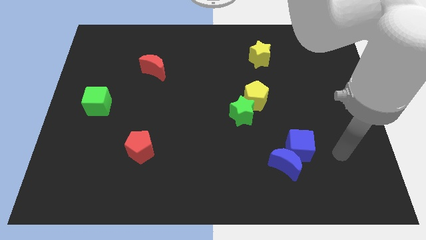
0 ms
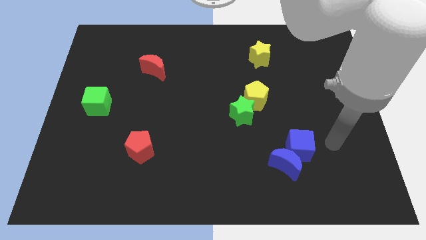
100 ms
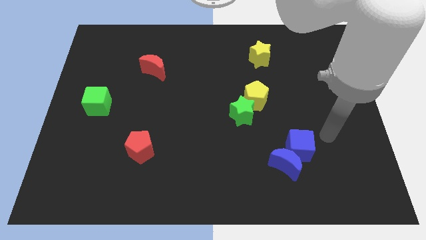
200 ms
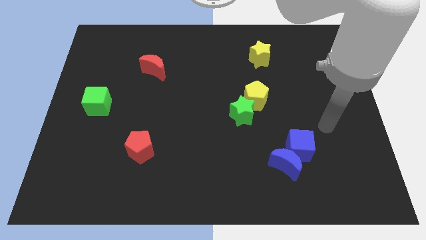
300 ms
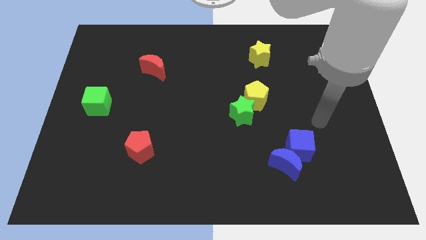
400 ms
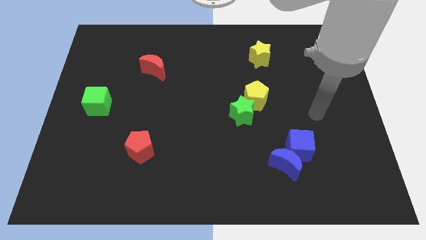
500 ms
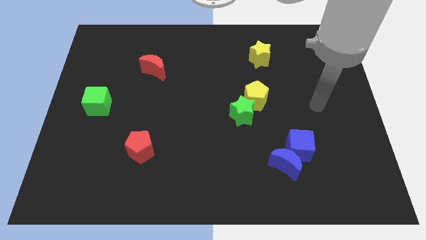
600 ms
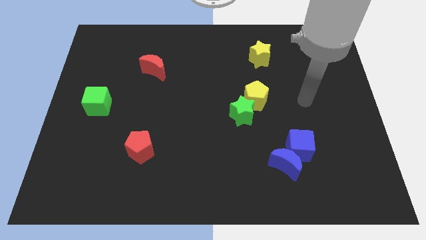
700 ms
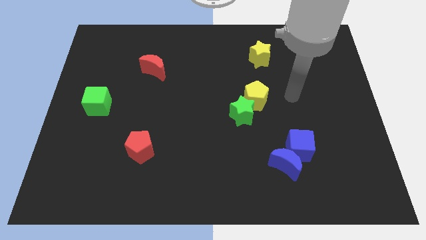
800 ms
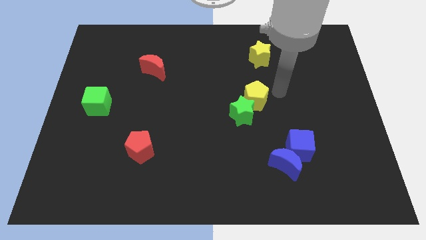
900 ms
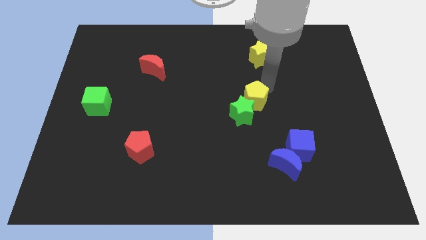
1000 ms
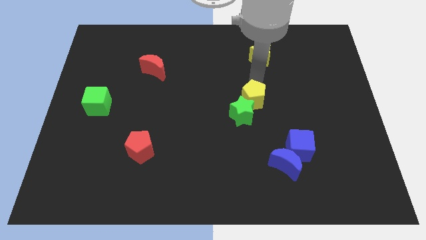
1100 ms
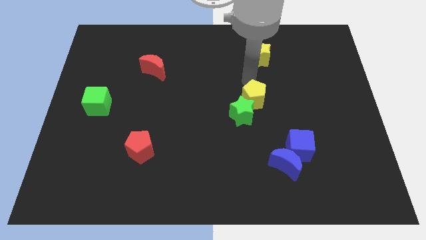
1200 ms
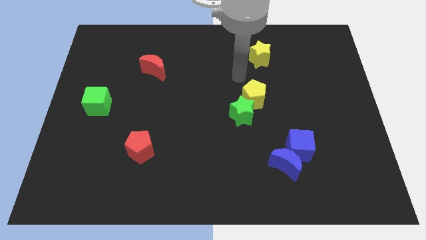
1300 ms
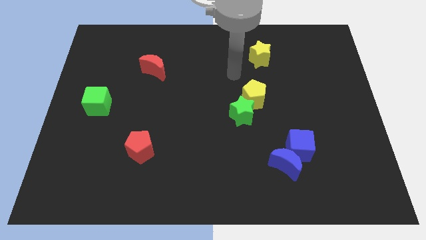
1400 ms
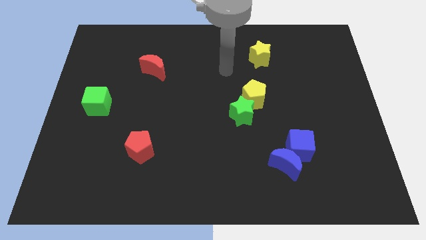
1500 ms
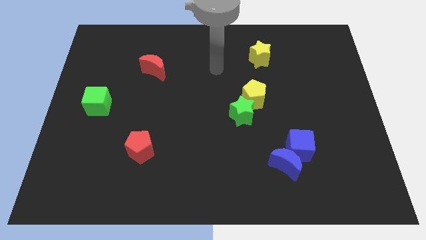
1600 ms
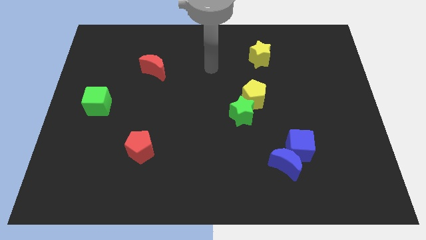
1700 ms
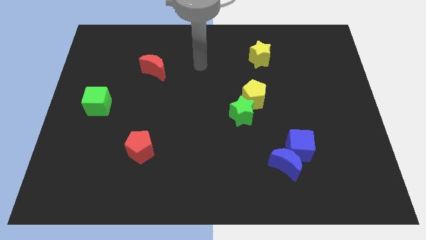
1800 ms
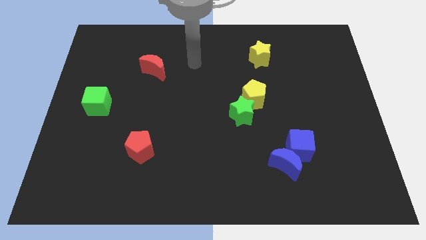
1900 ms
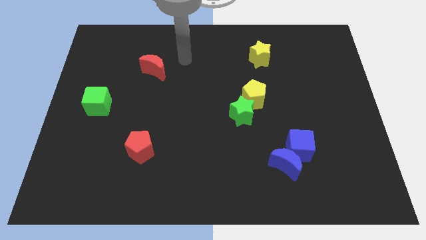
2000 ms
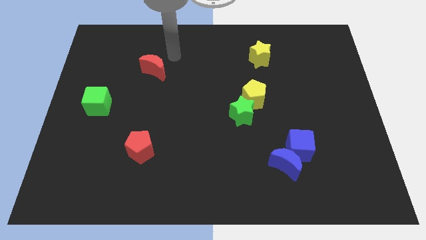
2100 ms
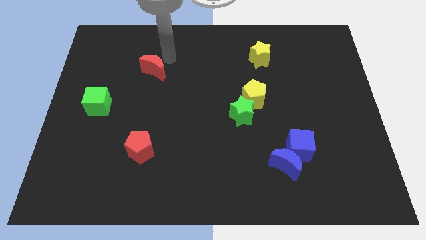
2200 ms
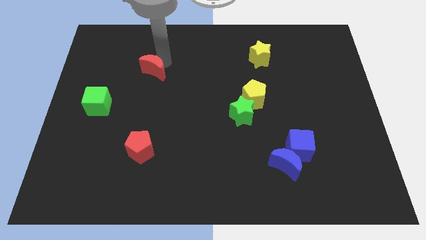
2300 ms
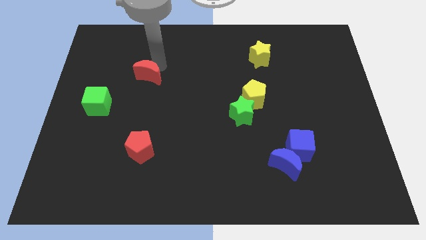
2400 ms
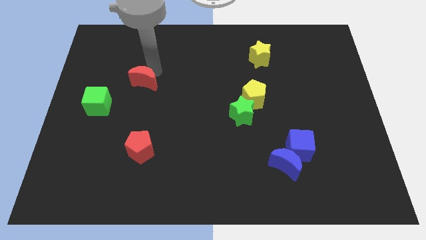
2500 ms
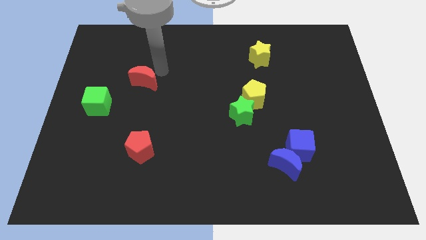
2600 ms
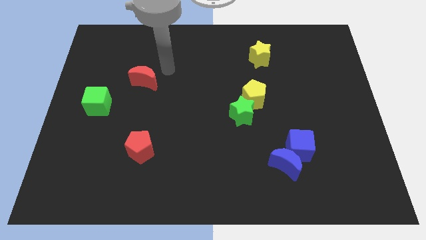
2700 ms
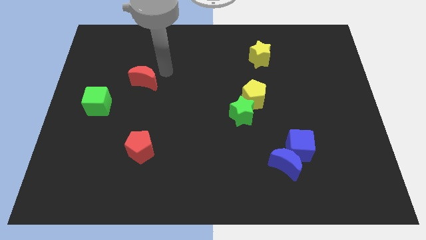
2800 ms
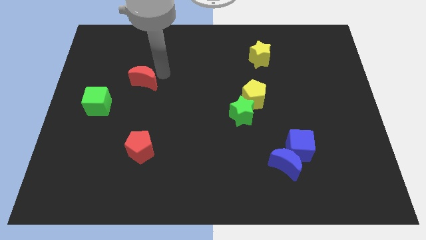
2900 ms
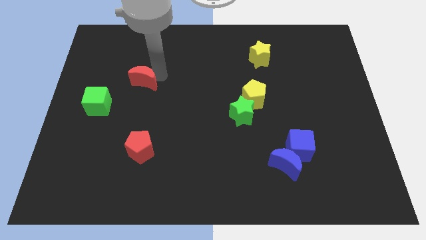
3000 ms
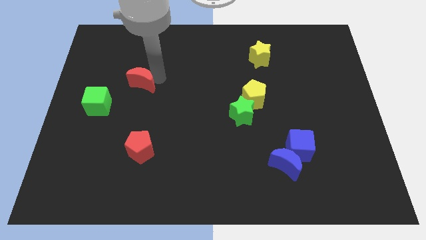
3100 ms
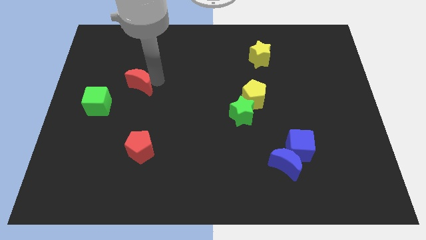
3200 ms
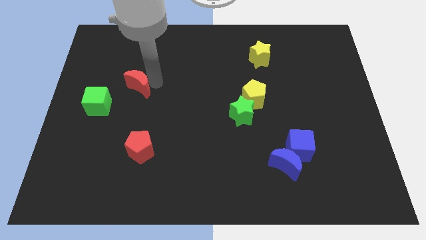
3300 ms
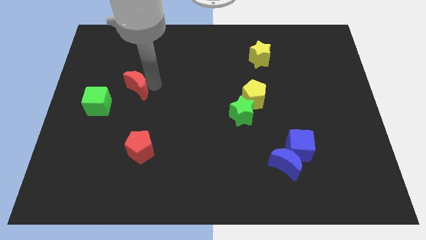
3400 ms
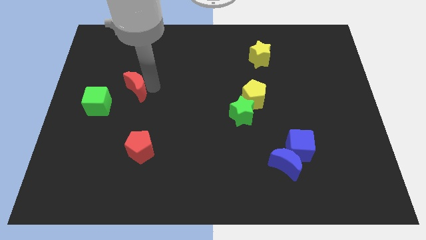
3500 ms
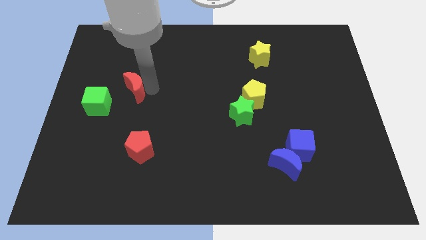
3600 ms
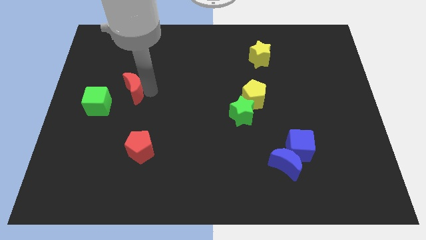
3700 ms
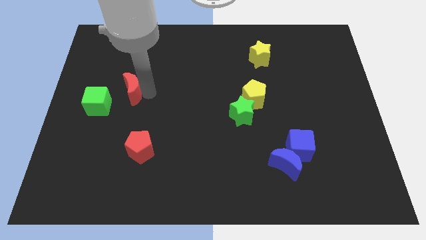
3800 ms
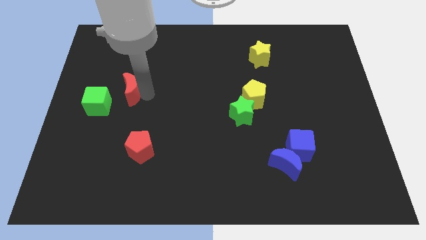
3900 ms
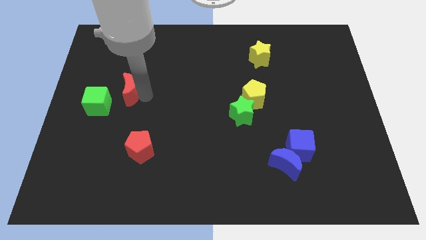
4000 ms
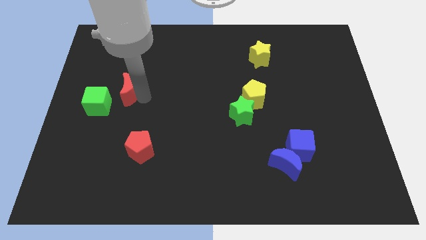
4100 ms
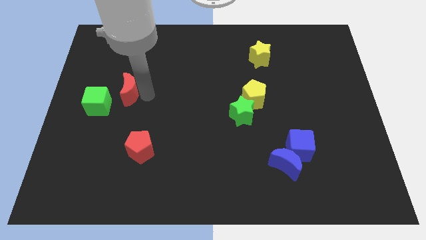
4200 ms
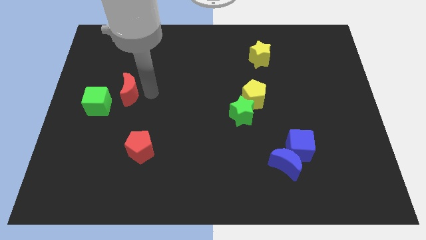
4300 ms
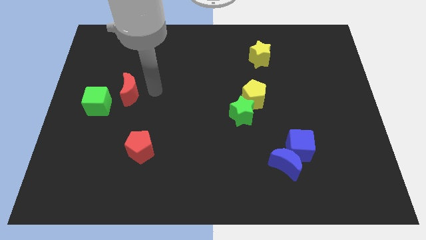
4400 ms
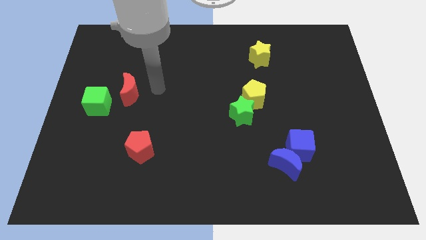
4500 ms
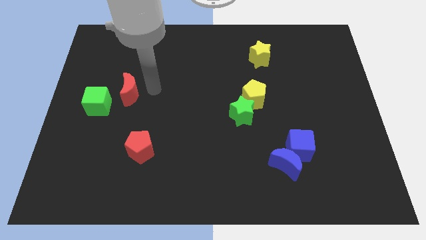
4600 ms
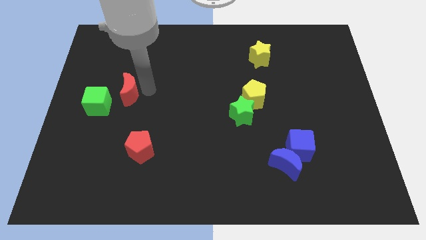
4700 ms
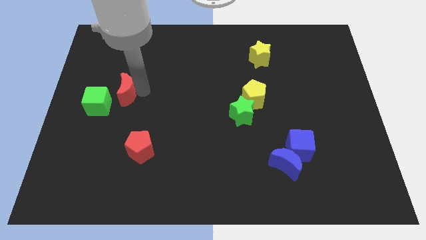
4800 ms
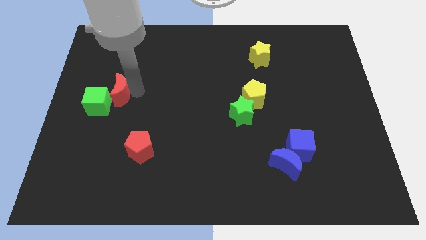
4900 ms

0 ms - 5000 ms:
slide the red moon towards the green cube

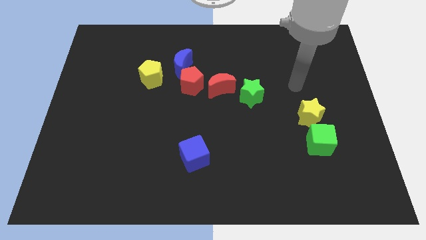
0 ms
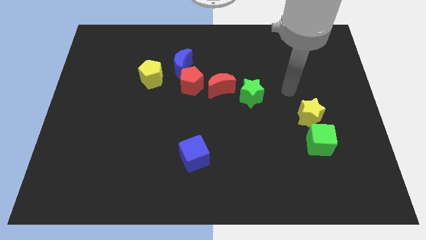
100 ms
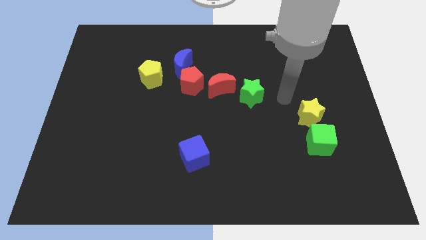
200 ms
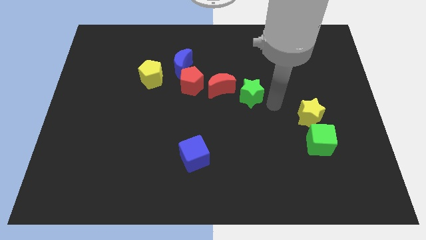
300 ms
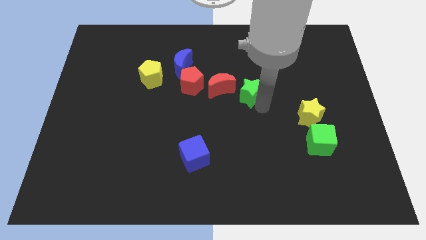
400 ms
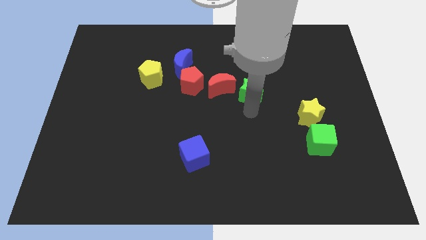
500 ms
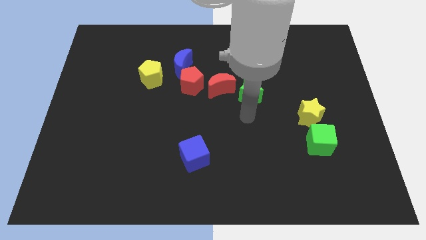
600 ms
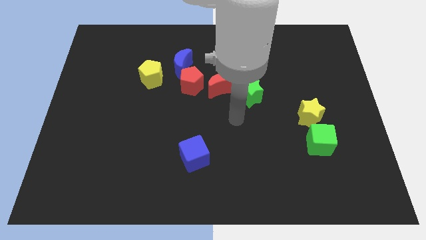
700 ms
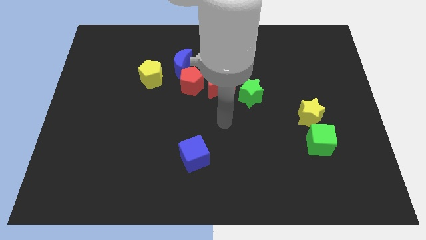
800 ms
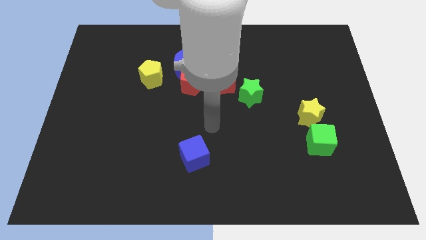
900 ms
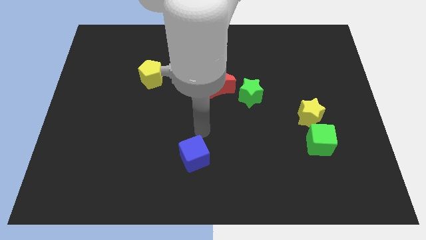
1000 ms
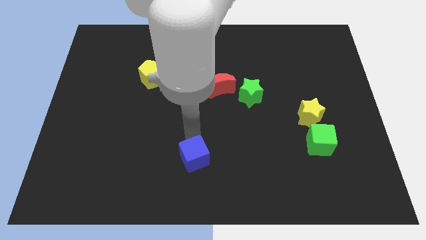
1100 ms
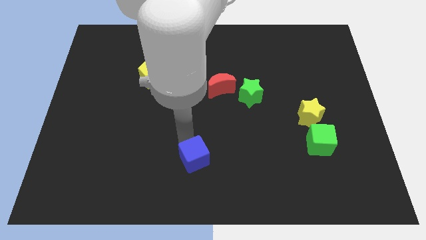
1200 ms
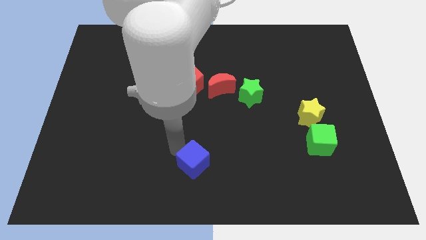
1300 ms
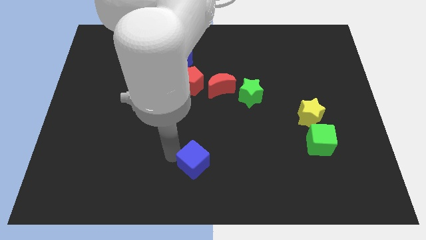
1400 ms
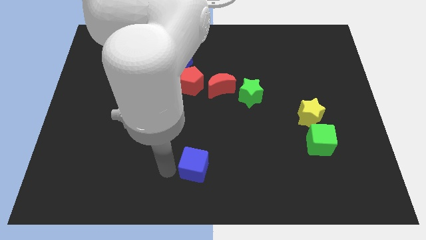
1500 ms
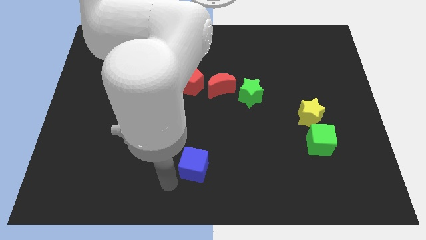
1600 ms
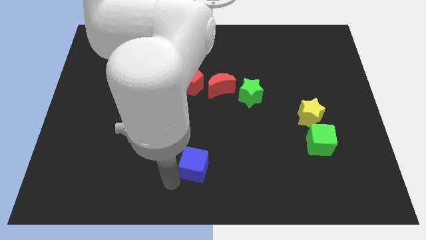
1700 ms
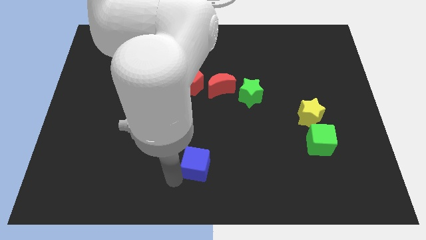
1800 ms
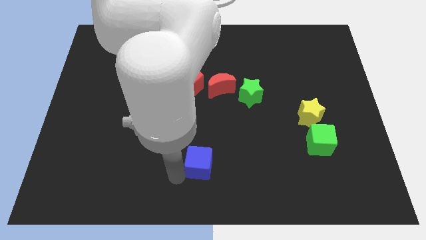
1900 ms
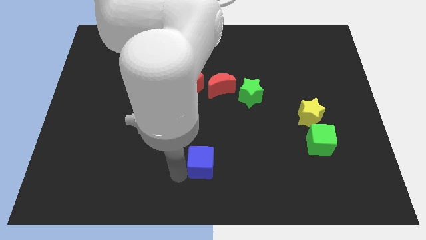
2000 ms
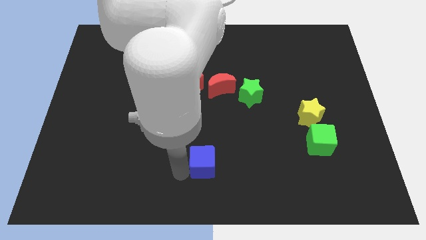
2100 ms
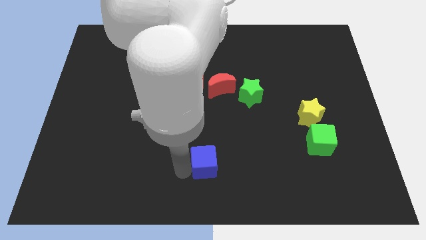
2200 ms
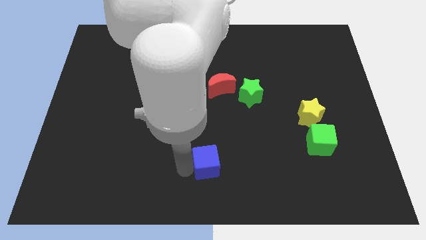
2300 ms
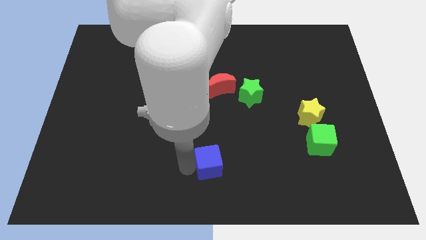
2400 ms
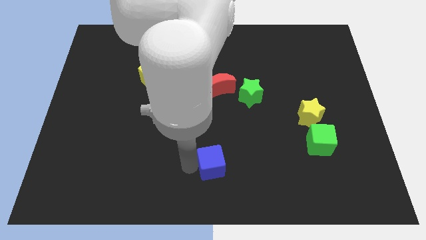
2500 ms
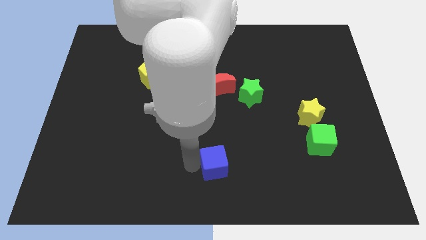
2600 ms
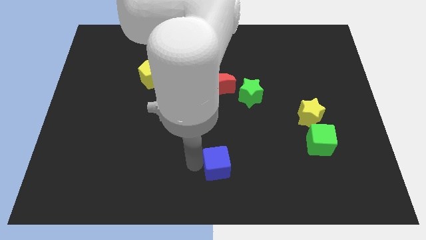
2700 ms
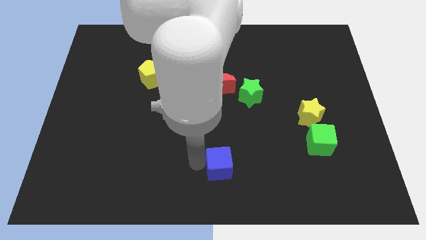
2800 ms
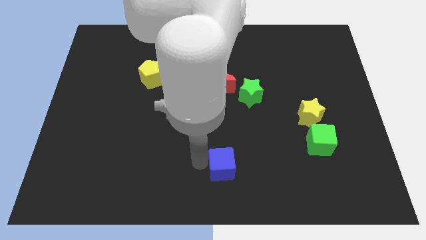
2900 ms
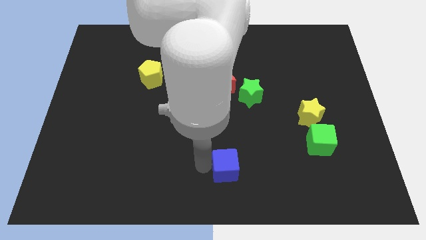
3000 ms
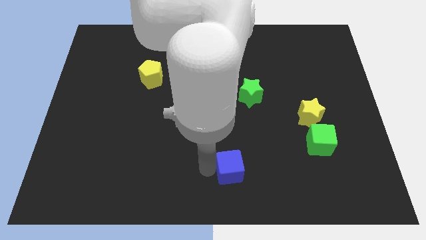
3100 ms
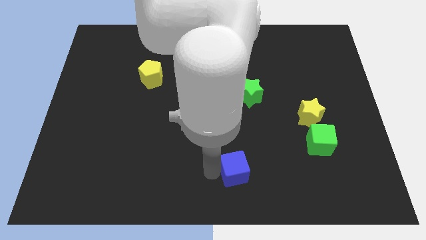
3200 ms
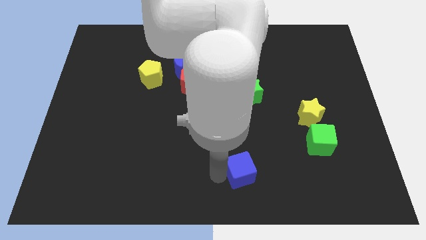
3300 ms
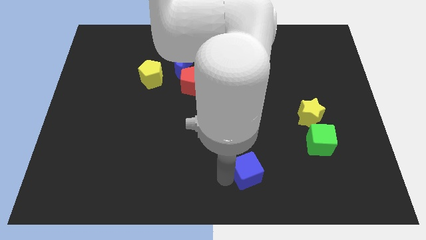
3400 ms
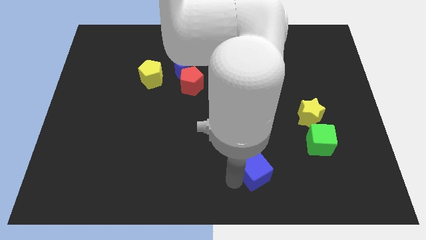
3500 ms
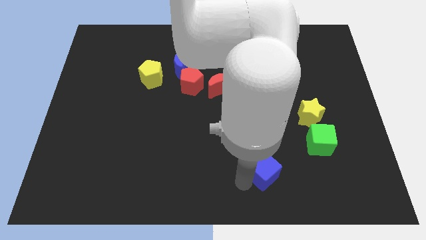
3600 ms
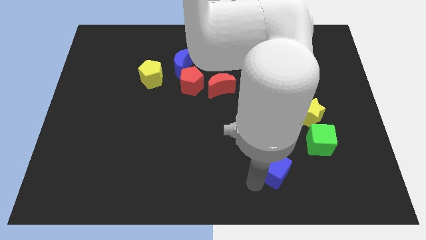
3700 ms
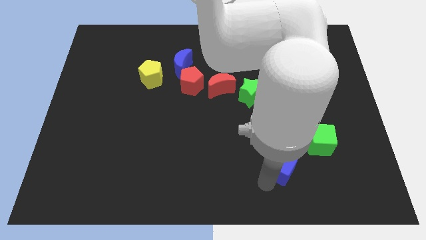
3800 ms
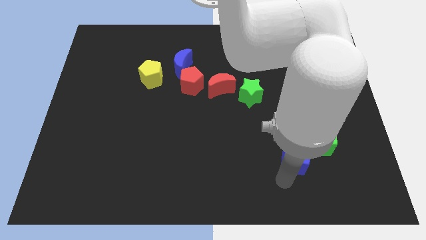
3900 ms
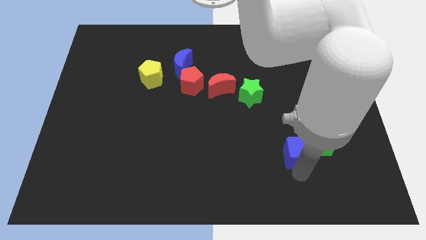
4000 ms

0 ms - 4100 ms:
push the blue cube towards the green cube
